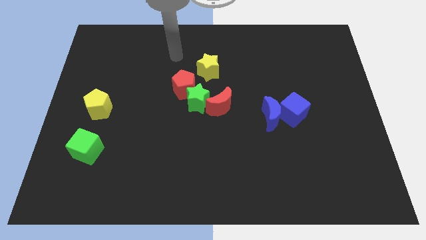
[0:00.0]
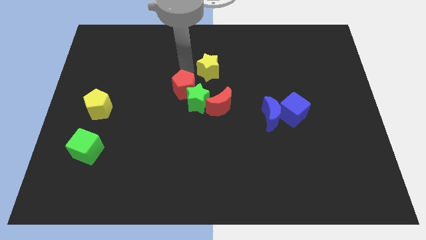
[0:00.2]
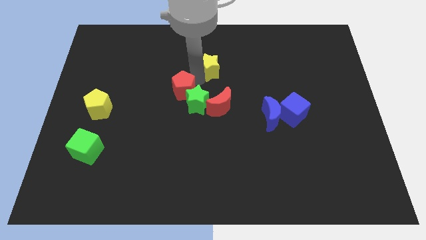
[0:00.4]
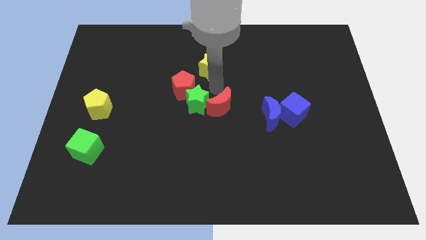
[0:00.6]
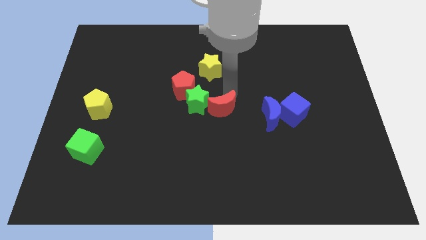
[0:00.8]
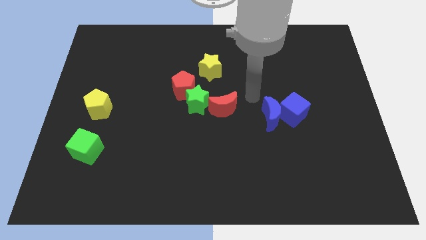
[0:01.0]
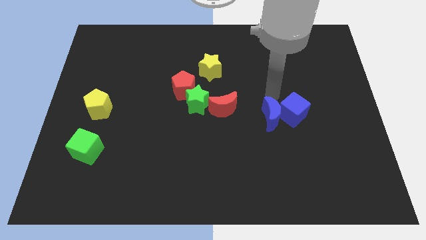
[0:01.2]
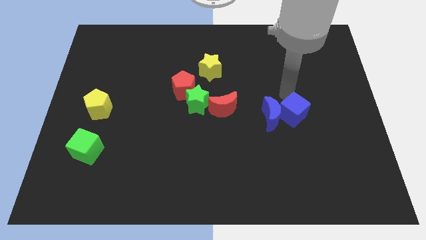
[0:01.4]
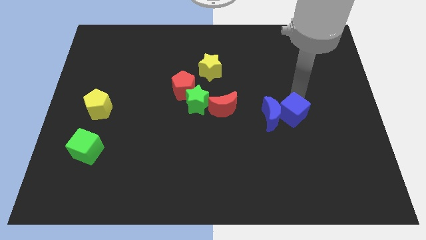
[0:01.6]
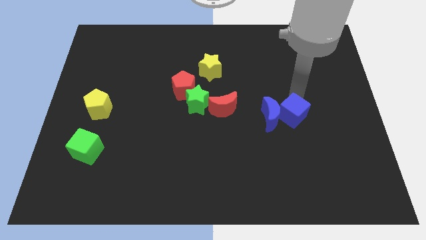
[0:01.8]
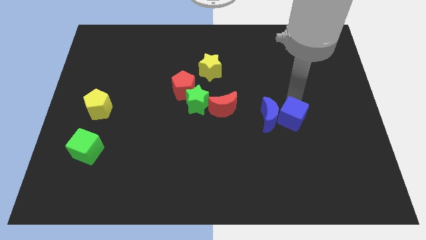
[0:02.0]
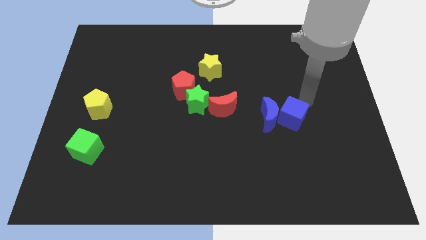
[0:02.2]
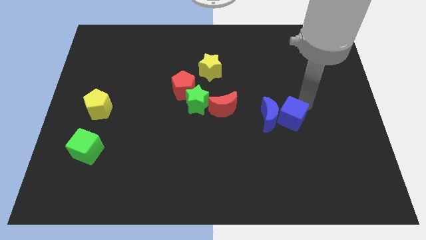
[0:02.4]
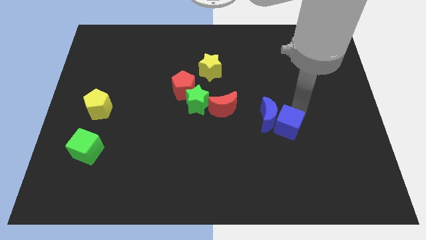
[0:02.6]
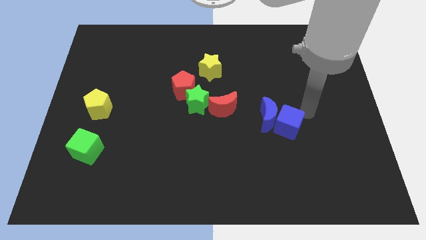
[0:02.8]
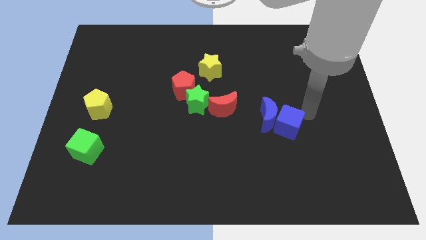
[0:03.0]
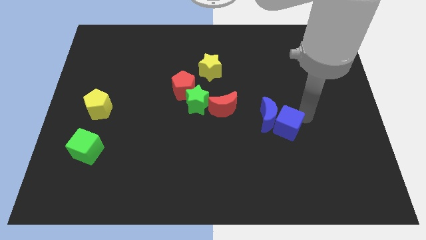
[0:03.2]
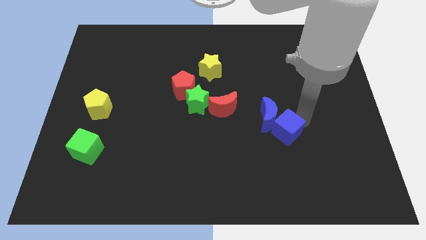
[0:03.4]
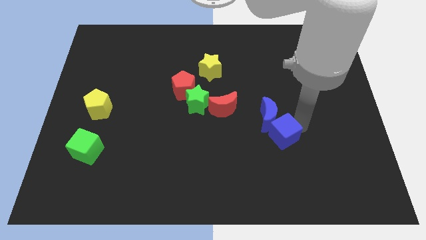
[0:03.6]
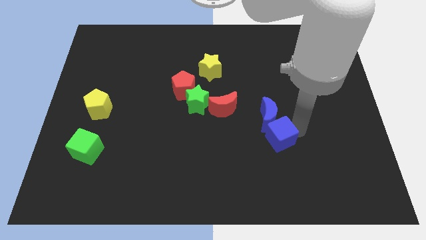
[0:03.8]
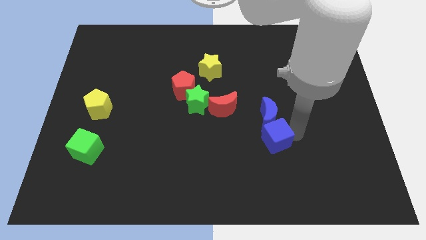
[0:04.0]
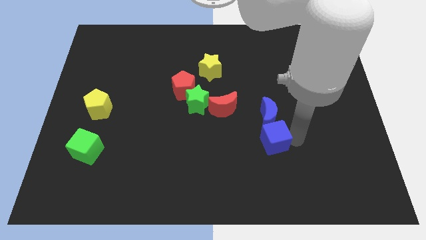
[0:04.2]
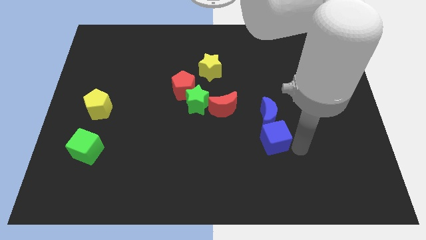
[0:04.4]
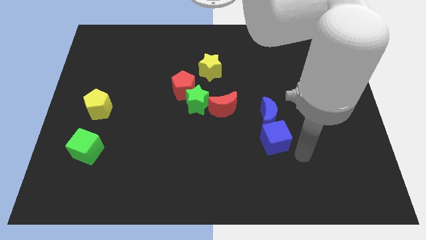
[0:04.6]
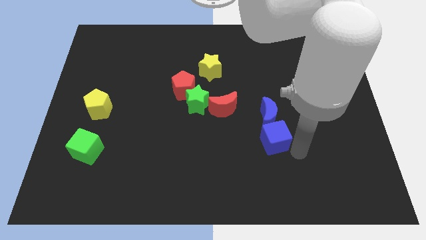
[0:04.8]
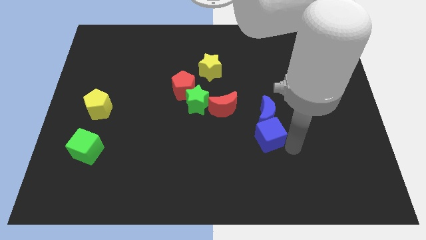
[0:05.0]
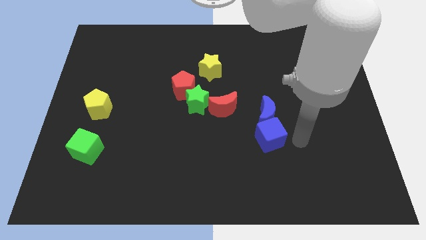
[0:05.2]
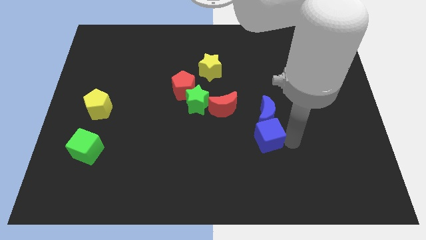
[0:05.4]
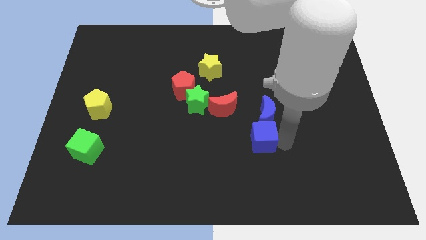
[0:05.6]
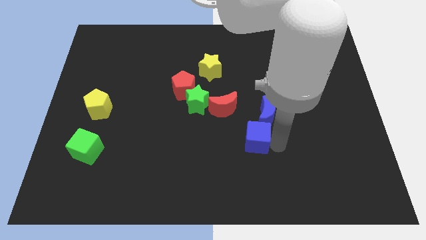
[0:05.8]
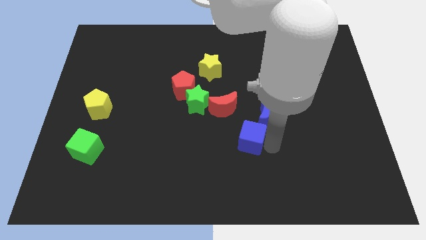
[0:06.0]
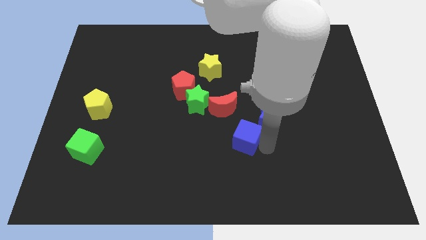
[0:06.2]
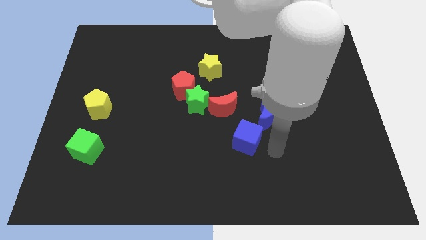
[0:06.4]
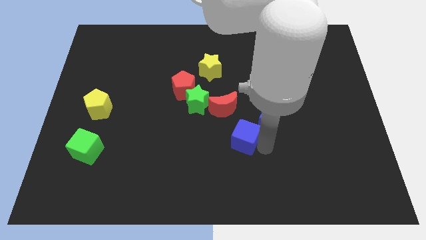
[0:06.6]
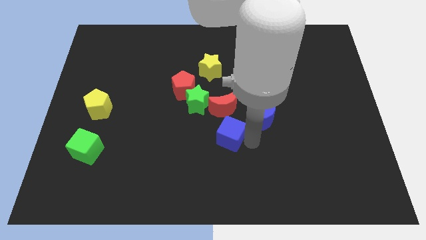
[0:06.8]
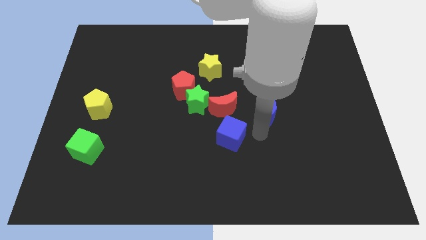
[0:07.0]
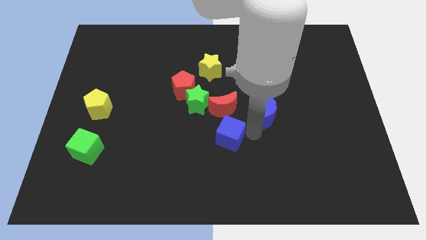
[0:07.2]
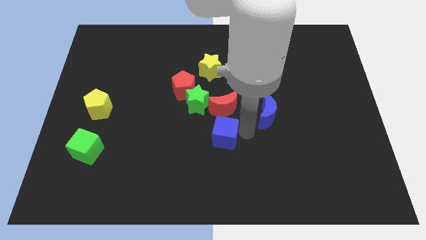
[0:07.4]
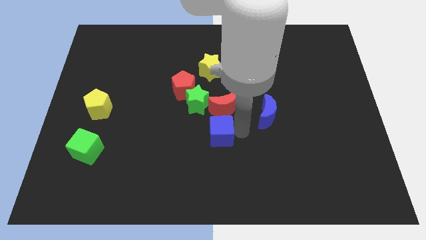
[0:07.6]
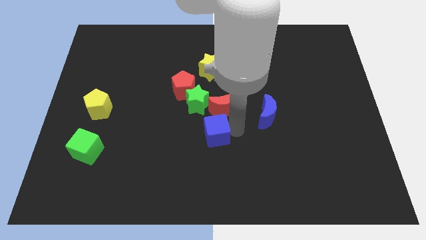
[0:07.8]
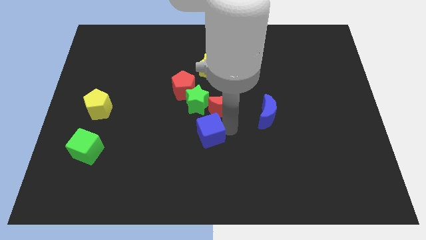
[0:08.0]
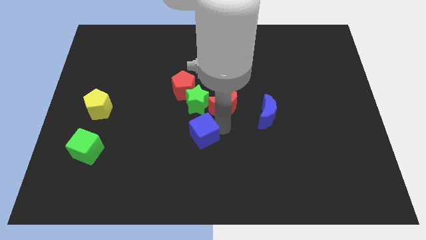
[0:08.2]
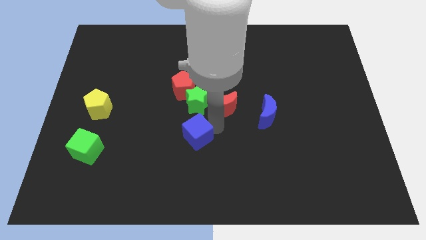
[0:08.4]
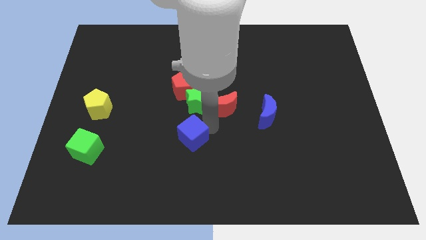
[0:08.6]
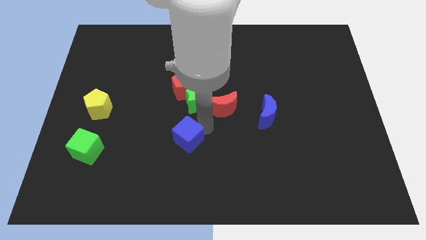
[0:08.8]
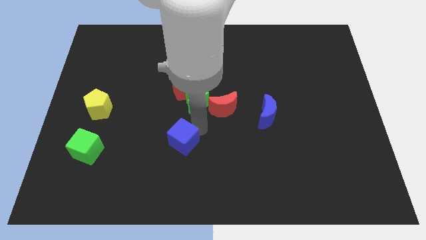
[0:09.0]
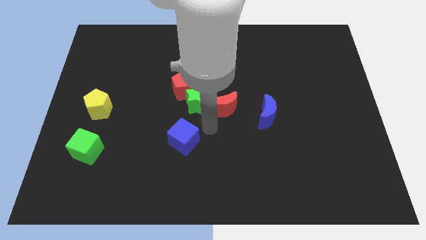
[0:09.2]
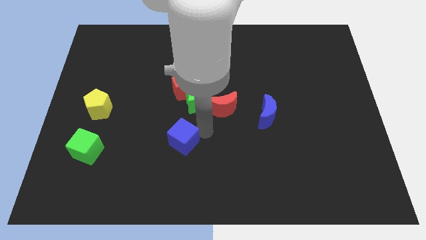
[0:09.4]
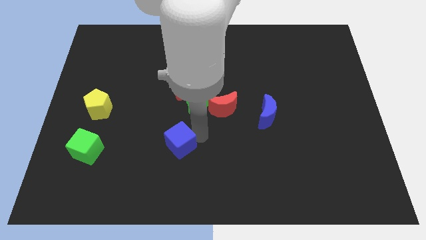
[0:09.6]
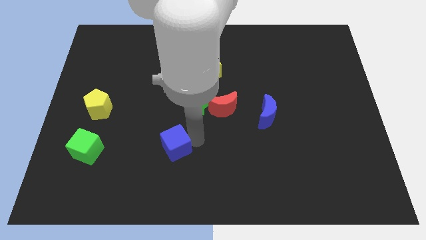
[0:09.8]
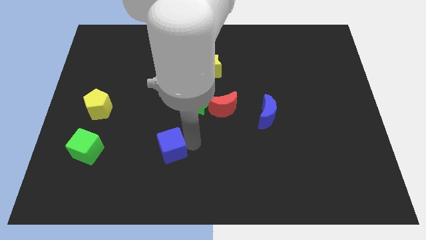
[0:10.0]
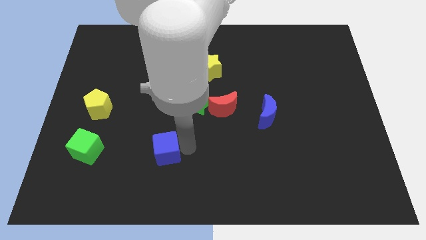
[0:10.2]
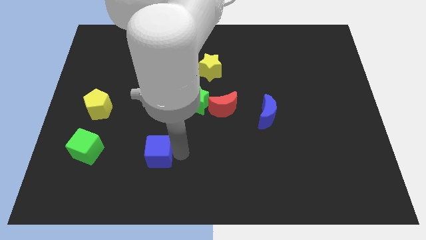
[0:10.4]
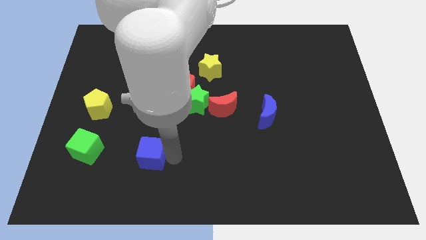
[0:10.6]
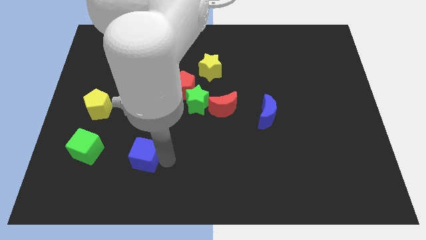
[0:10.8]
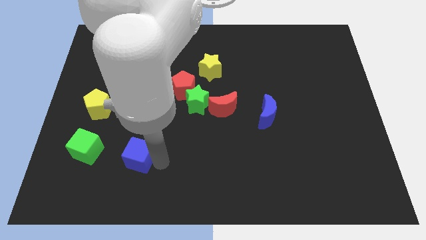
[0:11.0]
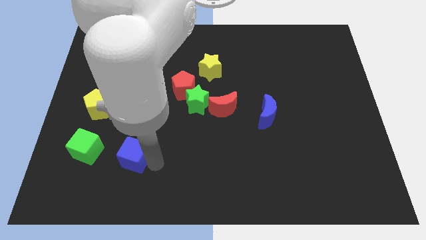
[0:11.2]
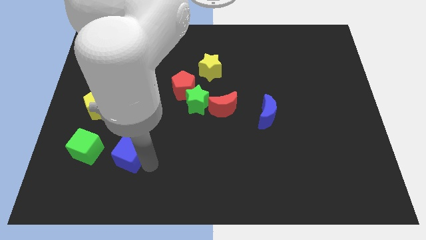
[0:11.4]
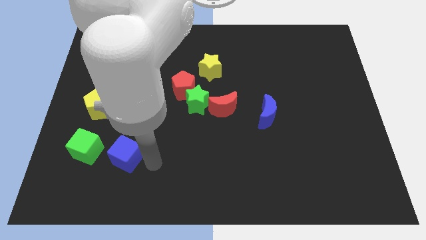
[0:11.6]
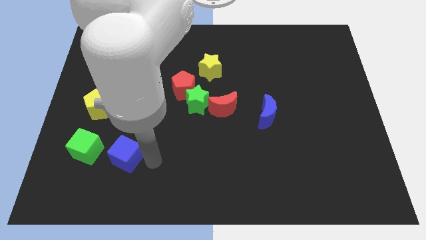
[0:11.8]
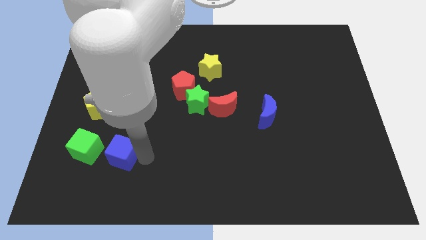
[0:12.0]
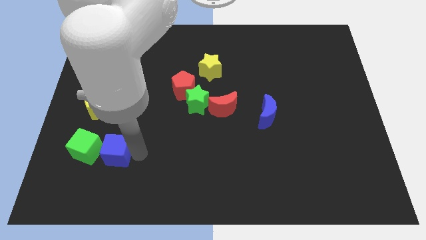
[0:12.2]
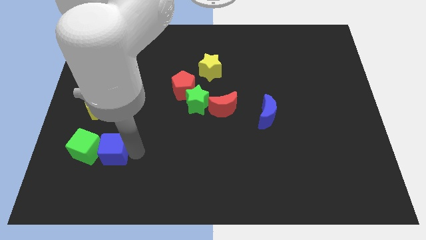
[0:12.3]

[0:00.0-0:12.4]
move the blue cube next to the green cube

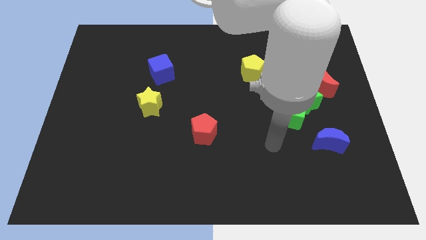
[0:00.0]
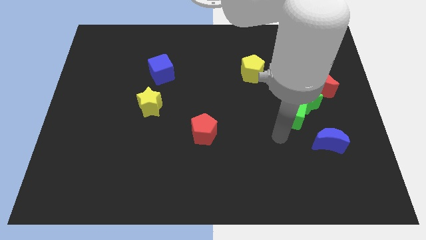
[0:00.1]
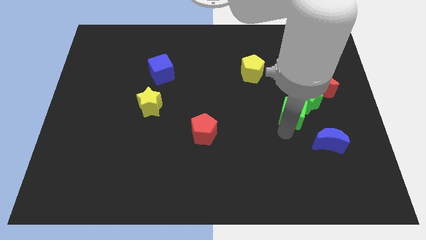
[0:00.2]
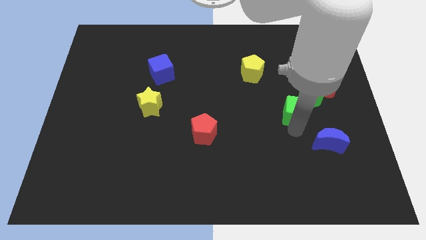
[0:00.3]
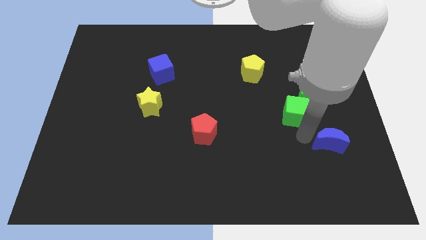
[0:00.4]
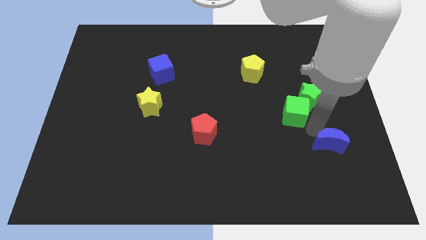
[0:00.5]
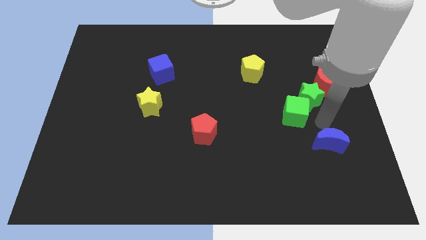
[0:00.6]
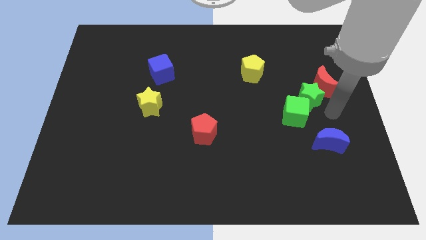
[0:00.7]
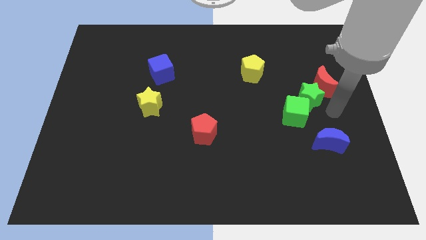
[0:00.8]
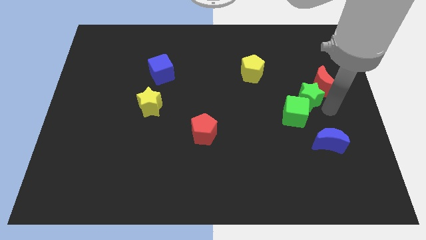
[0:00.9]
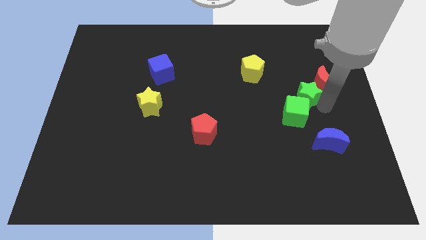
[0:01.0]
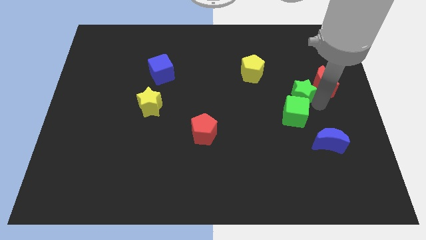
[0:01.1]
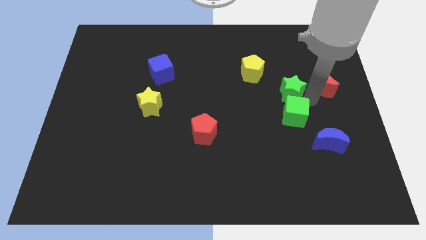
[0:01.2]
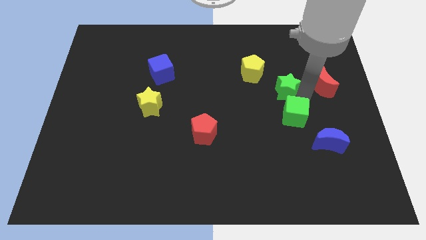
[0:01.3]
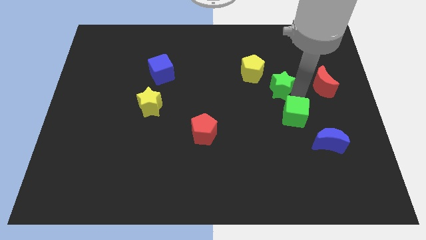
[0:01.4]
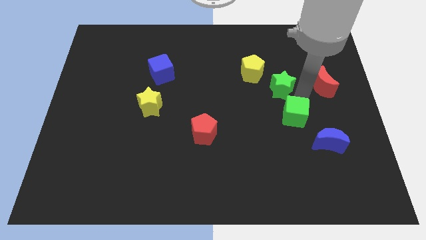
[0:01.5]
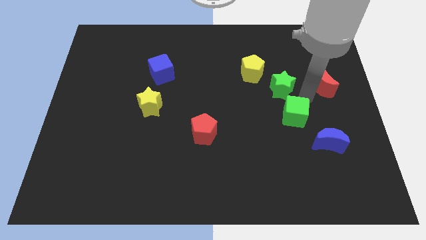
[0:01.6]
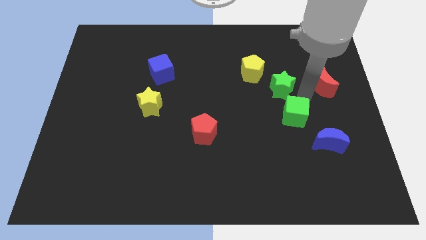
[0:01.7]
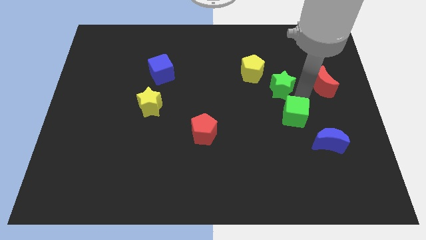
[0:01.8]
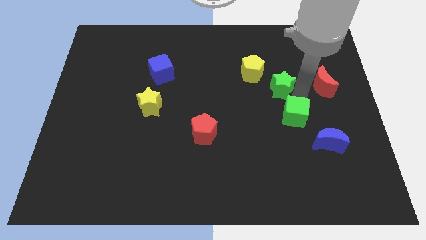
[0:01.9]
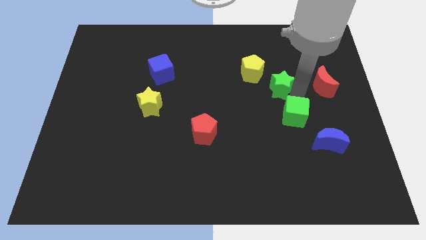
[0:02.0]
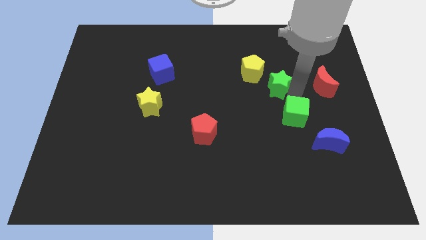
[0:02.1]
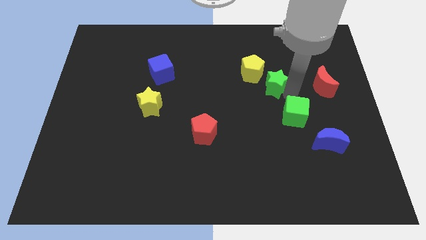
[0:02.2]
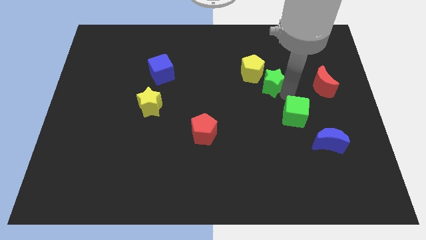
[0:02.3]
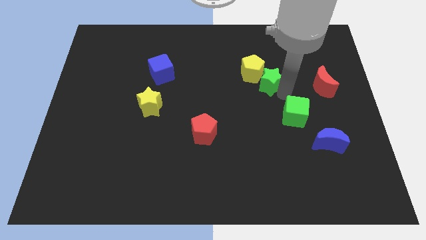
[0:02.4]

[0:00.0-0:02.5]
push the green star close to the yellow pentagon
